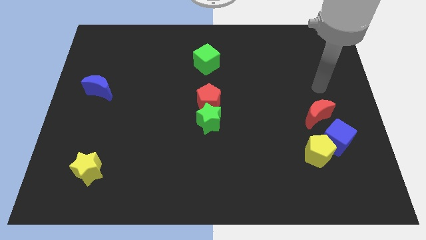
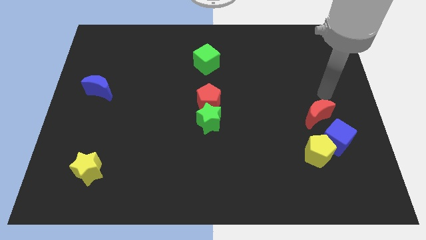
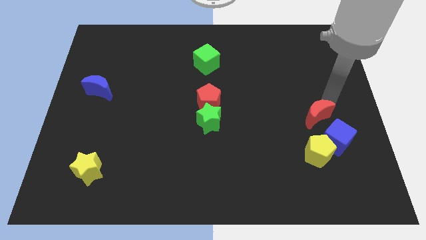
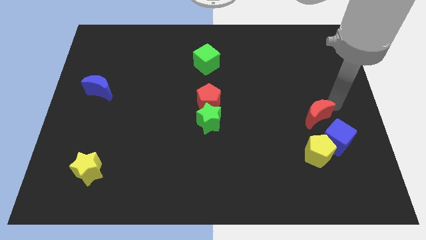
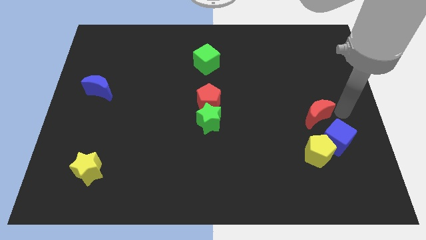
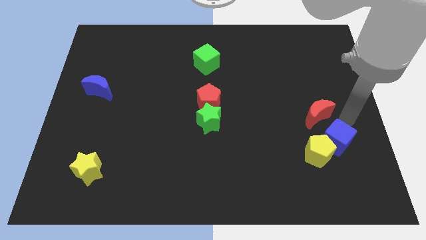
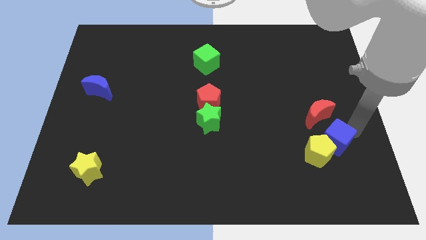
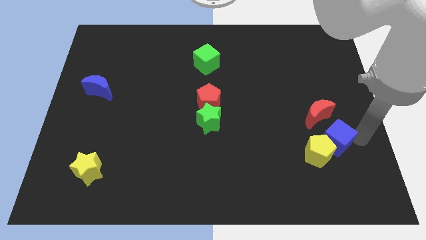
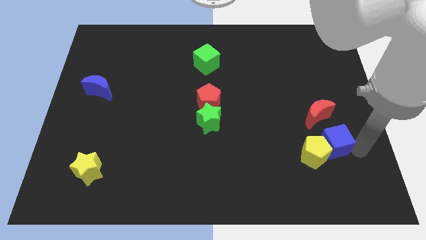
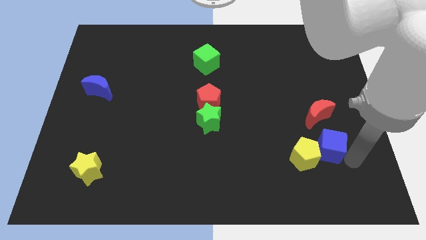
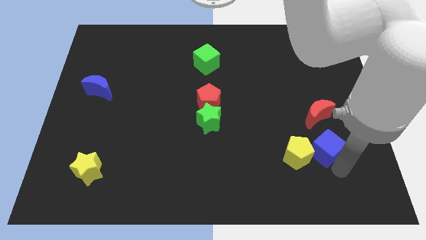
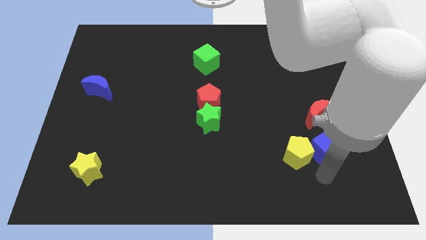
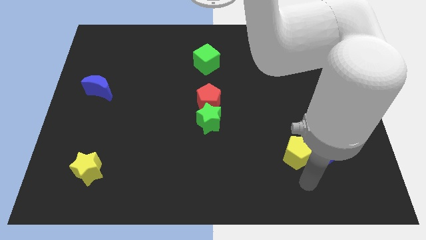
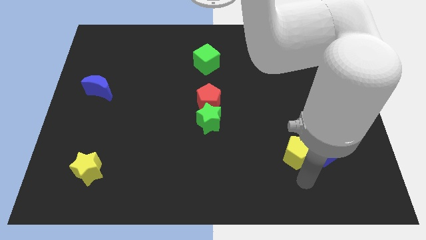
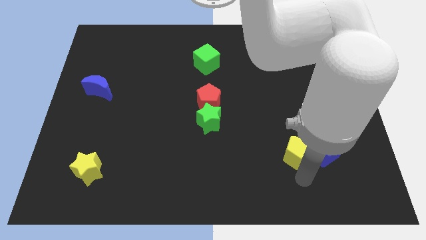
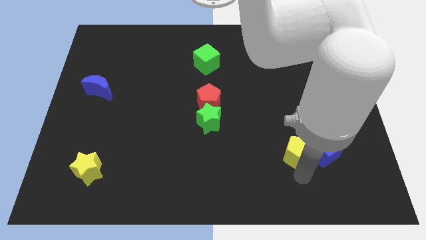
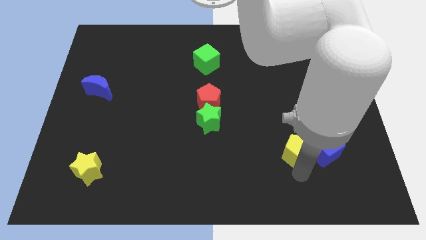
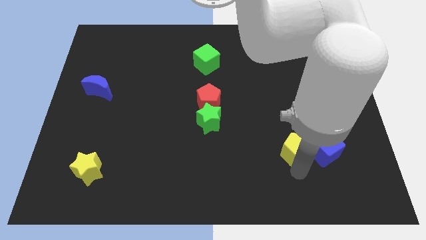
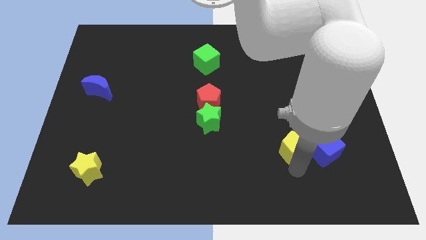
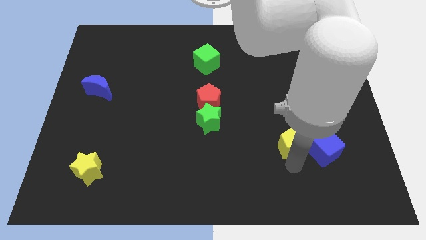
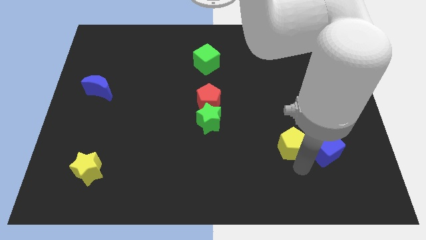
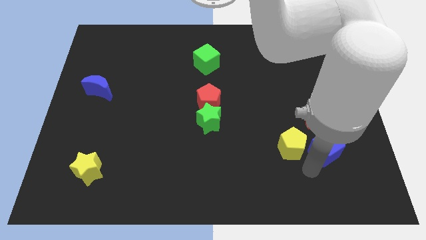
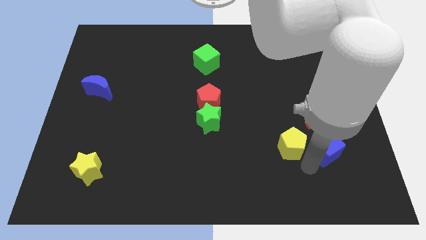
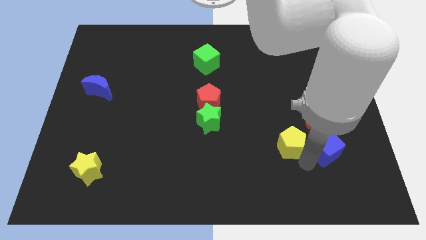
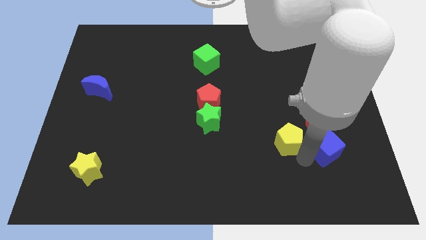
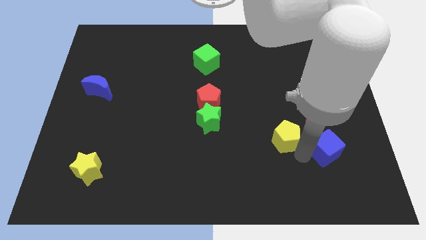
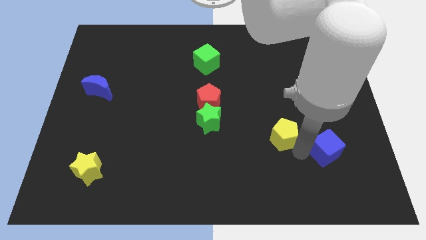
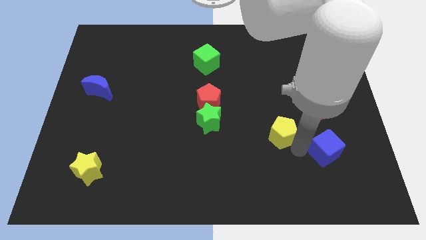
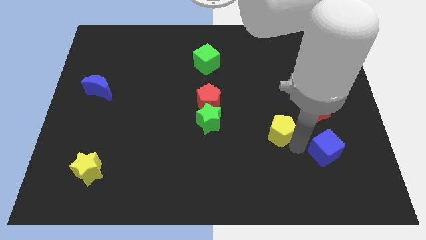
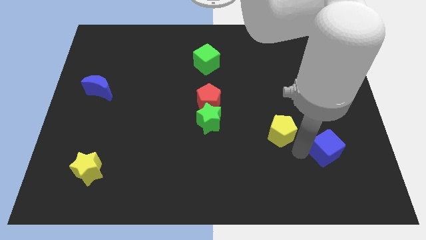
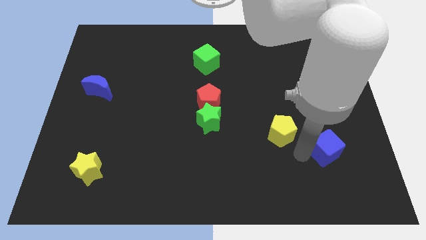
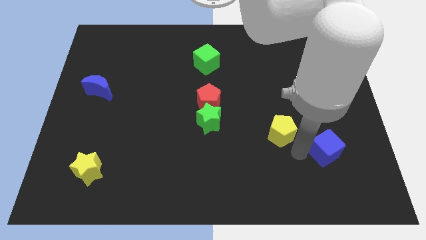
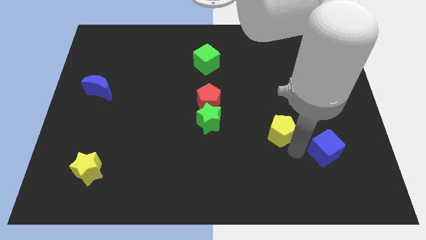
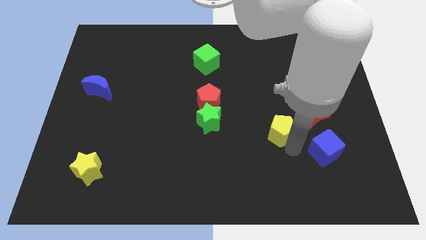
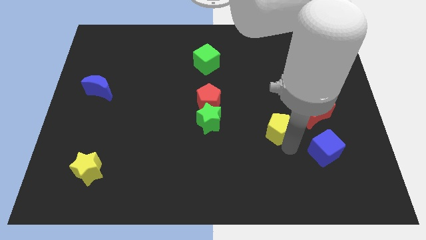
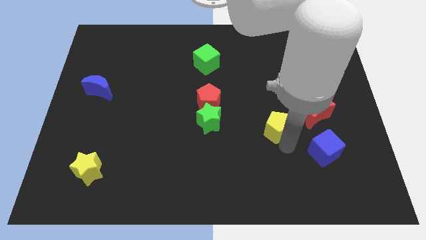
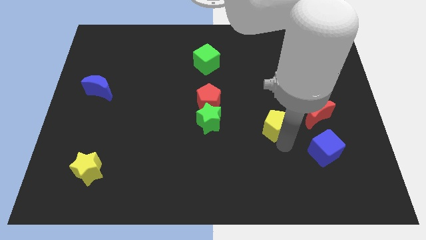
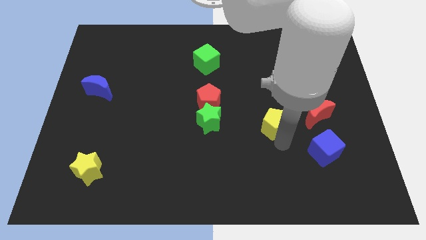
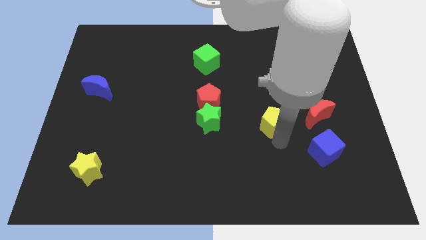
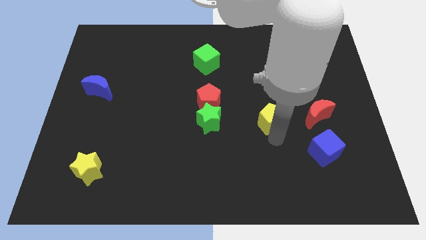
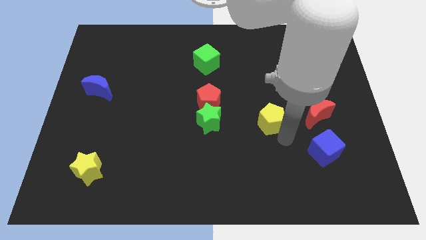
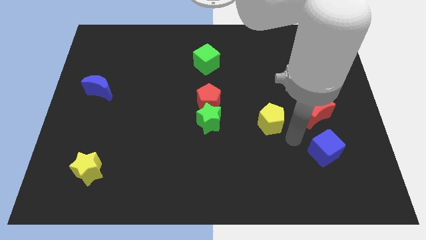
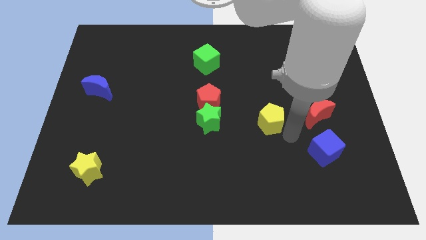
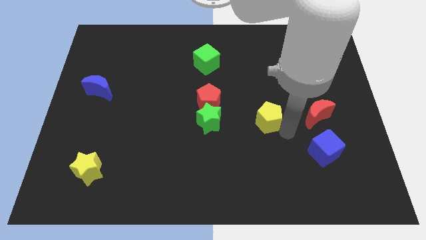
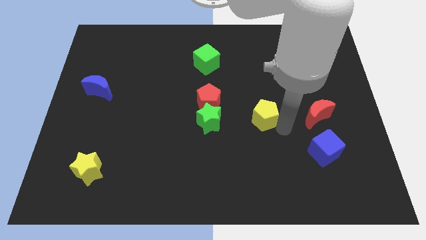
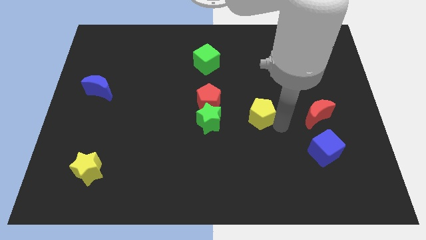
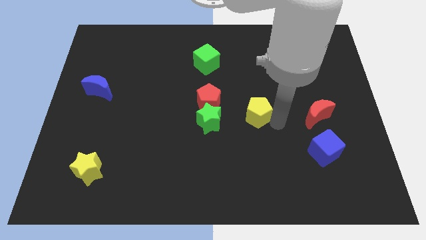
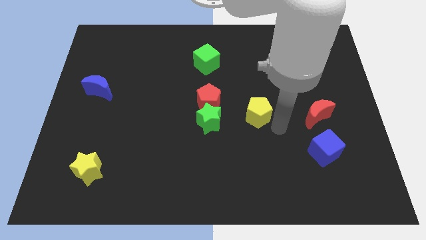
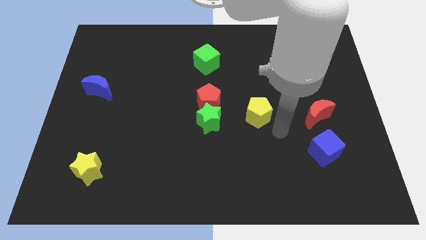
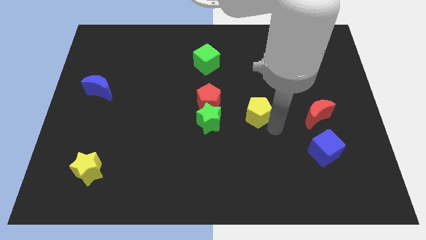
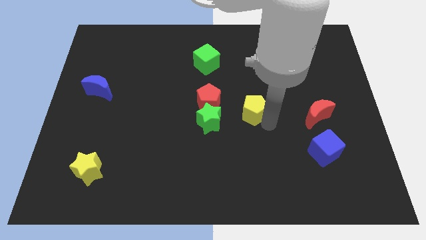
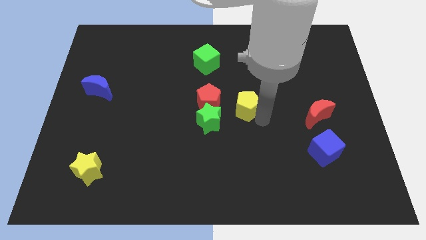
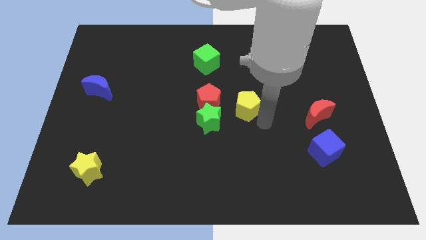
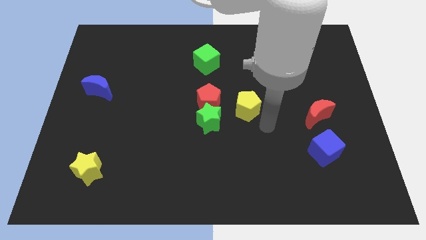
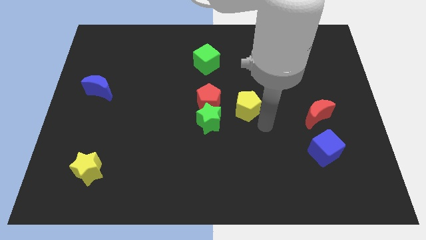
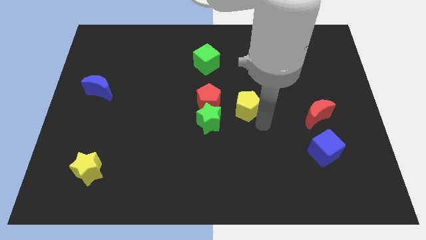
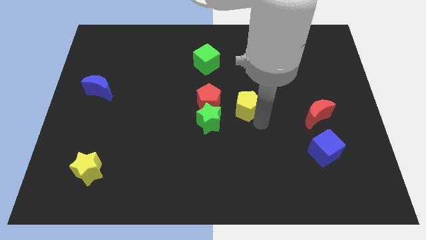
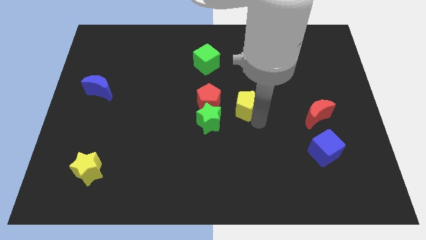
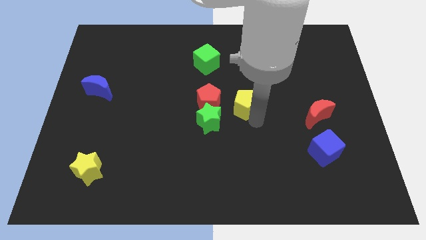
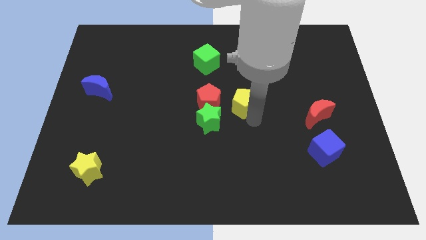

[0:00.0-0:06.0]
move the yellow pentagon diagonally up and left

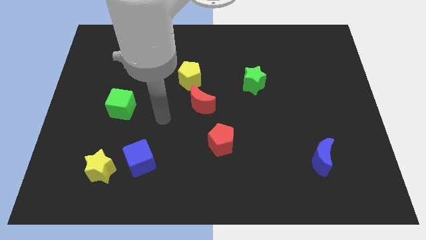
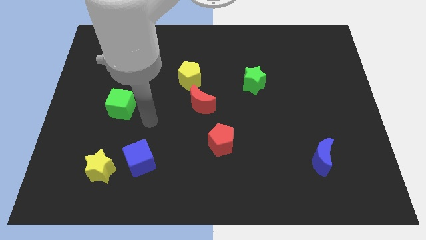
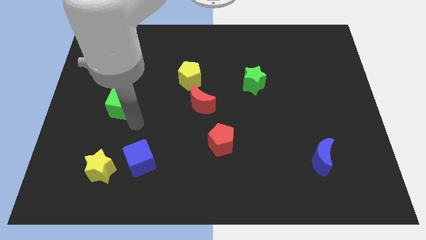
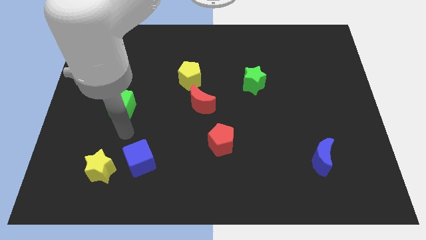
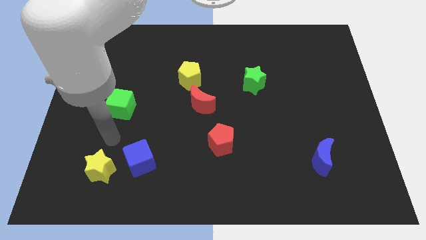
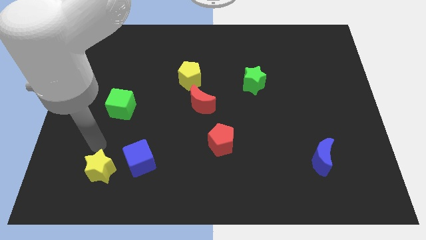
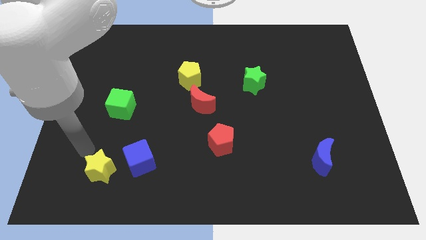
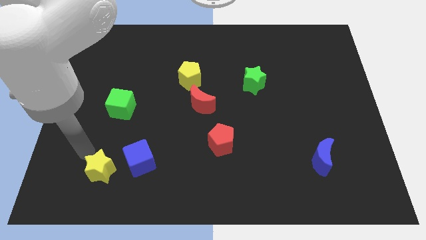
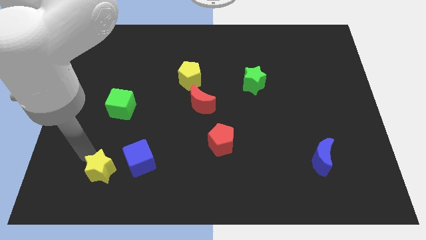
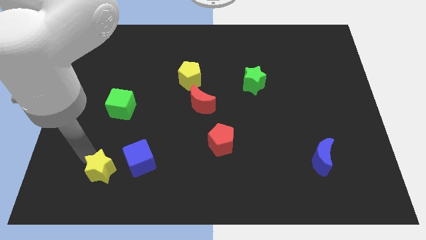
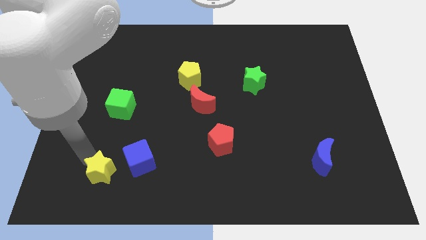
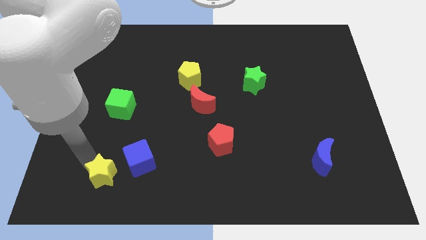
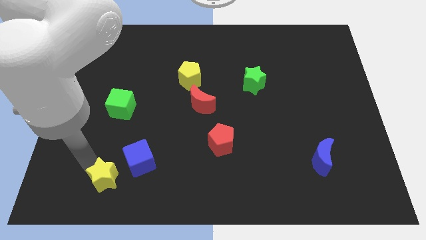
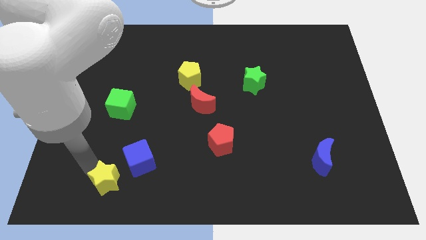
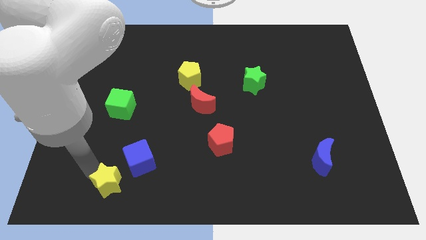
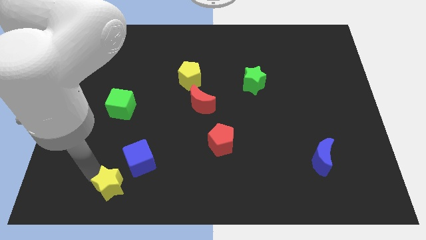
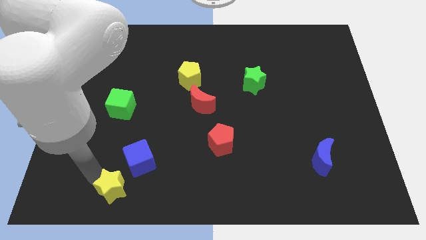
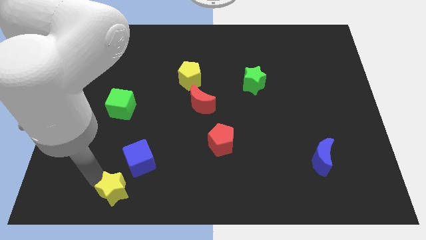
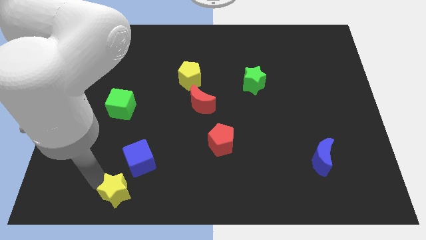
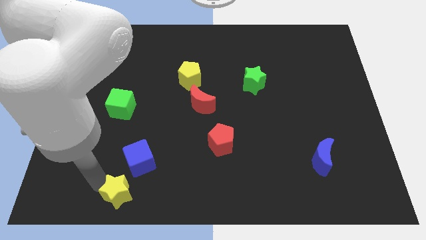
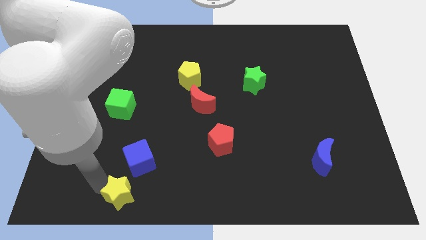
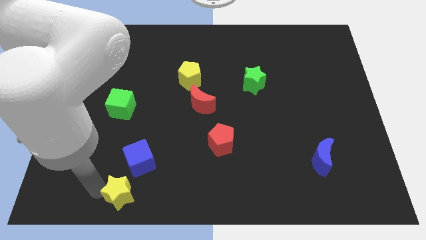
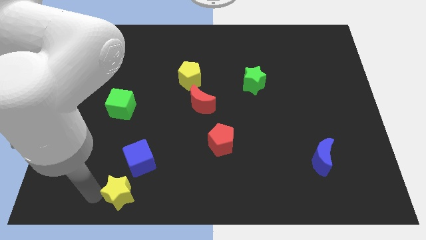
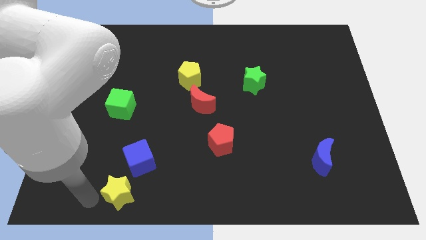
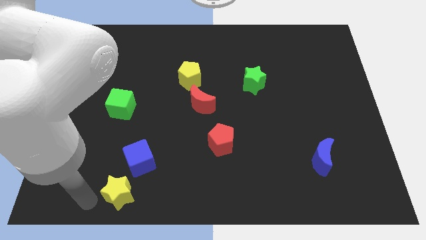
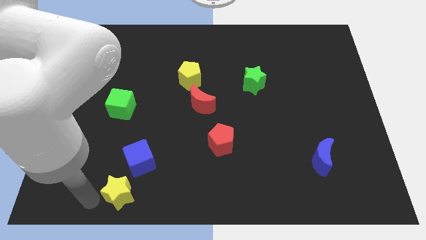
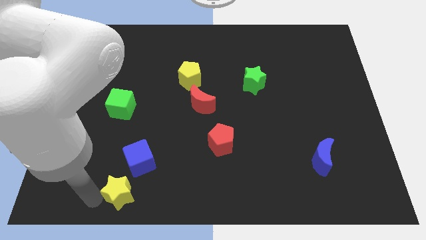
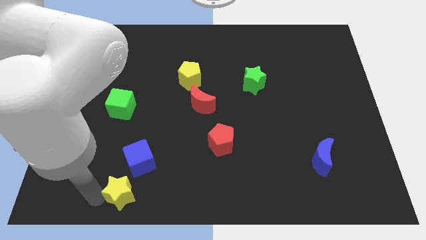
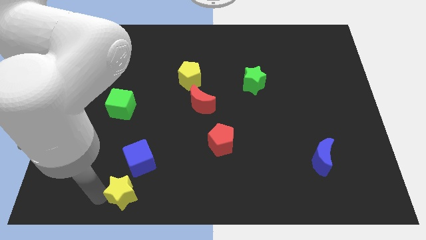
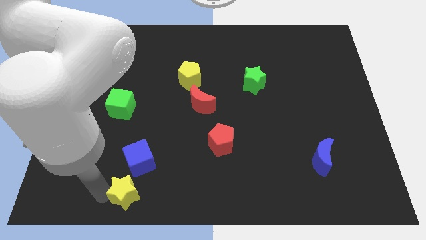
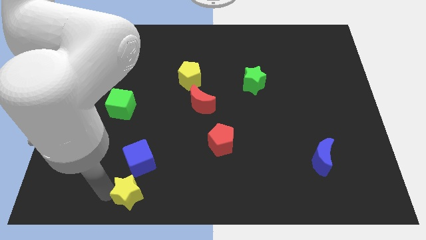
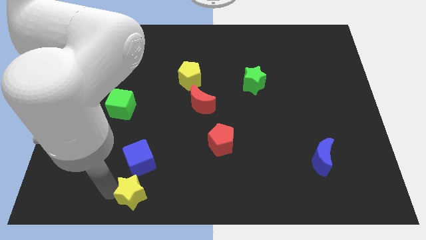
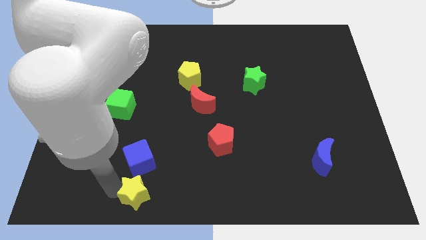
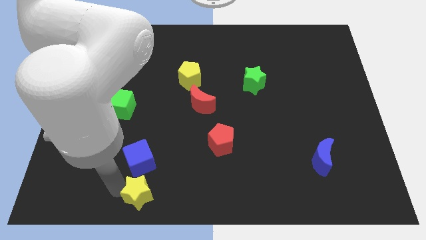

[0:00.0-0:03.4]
slightly move the yellow star right
